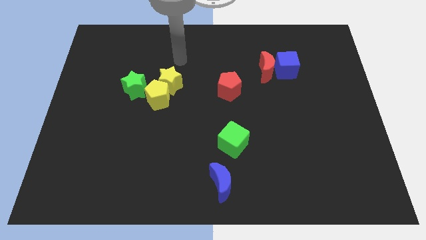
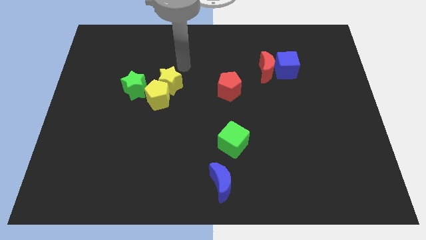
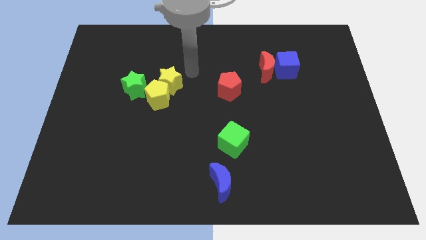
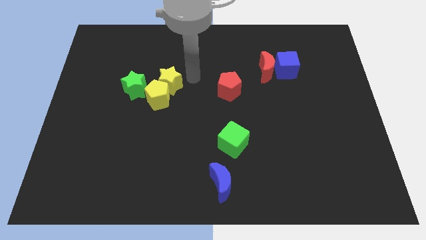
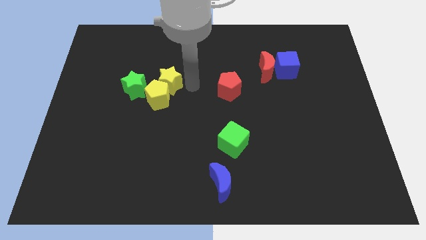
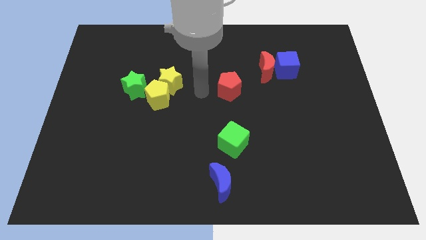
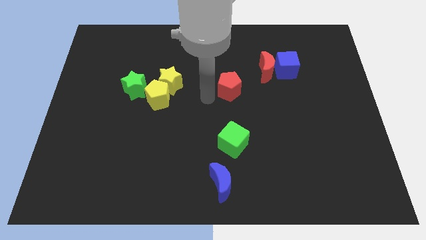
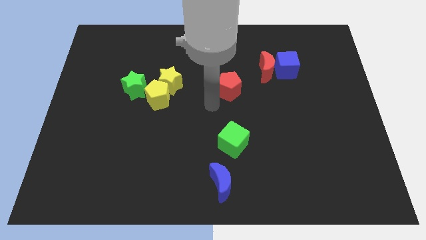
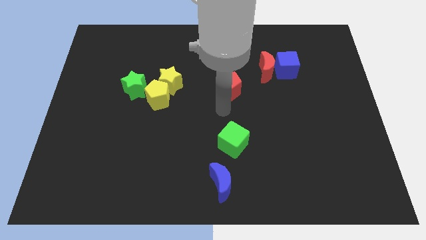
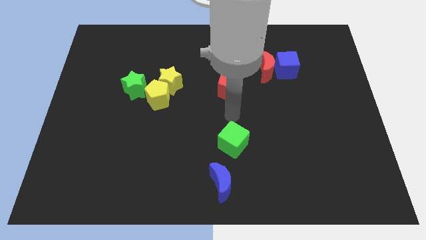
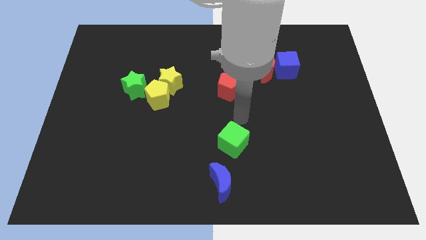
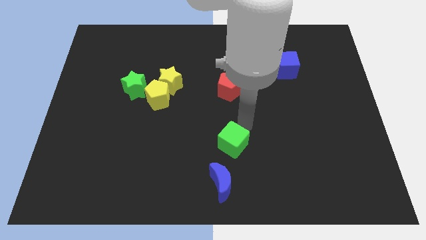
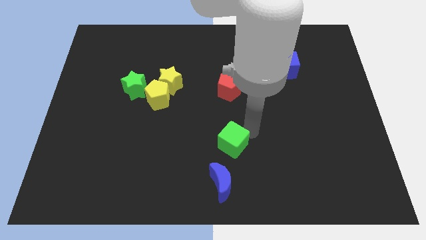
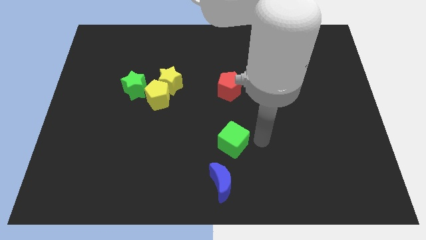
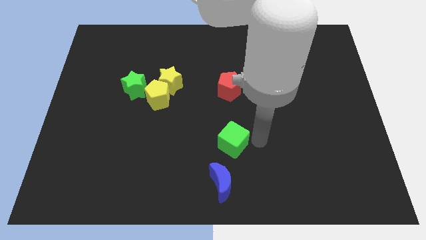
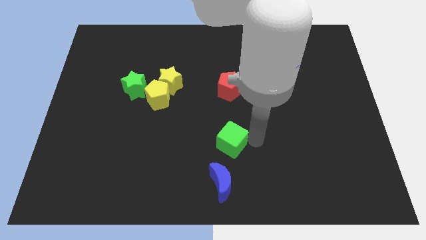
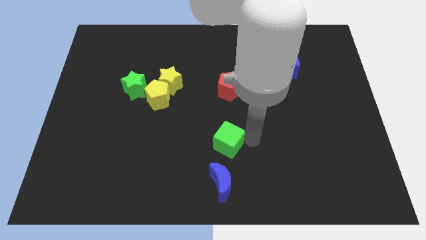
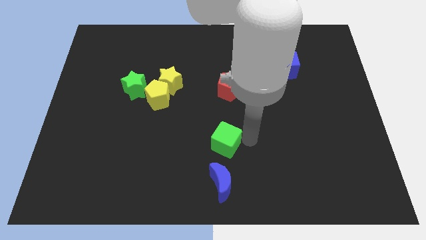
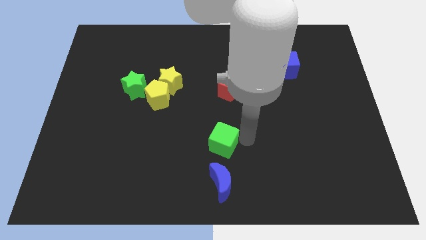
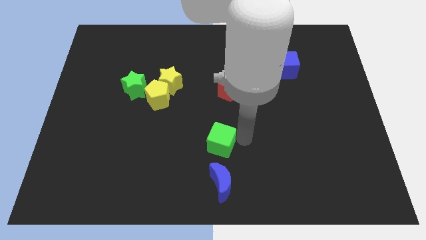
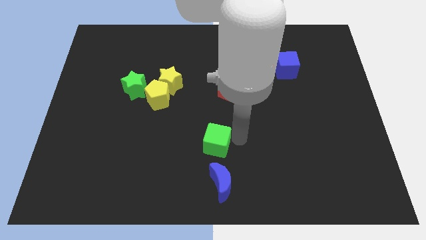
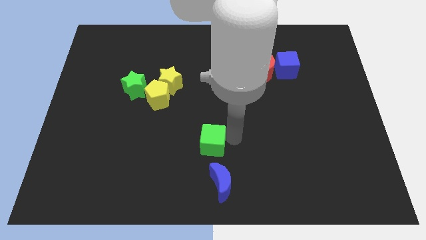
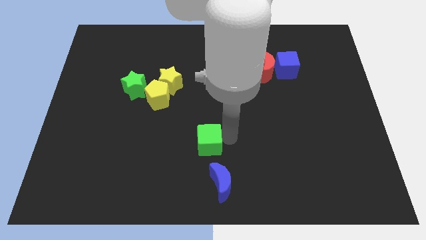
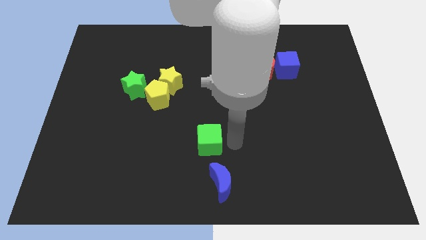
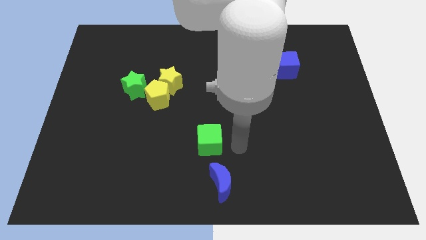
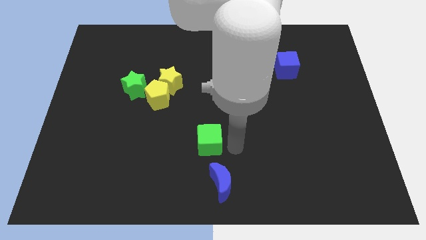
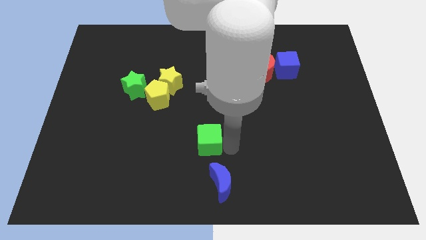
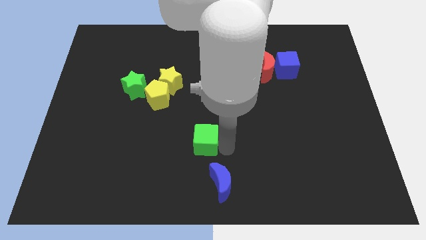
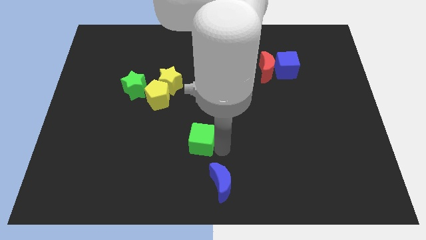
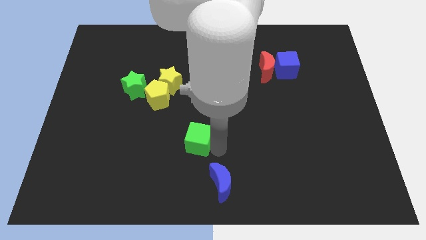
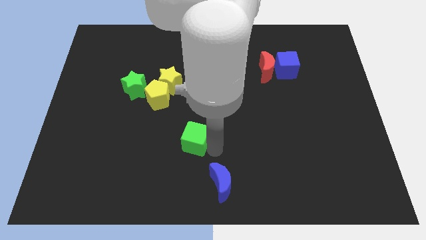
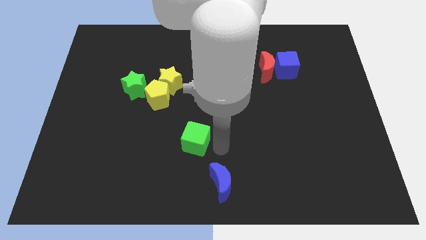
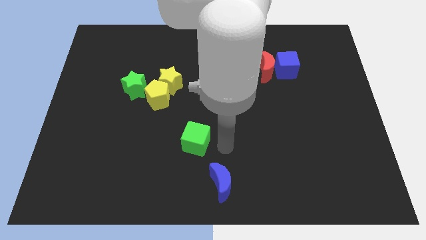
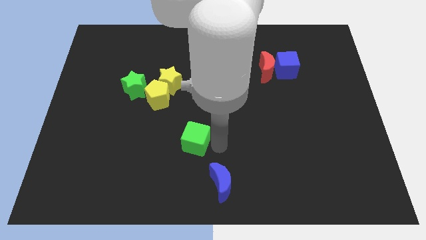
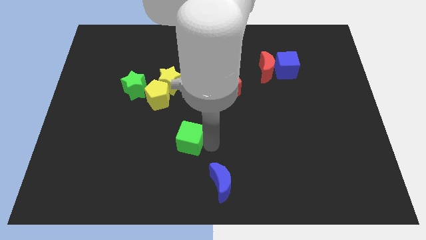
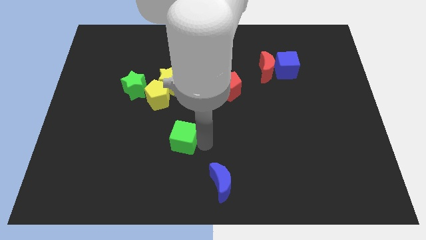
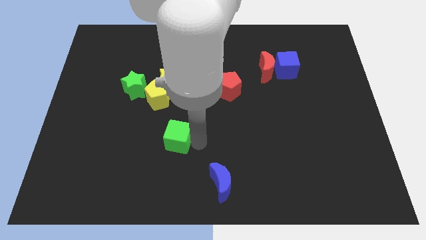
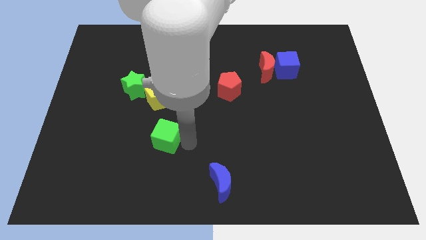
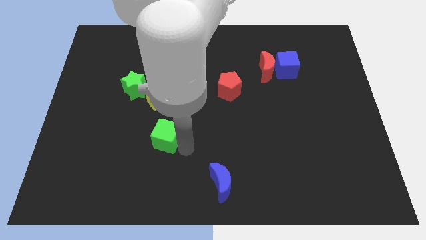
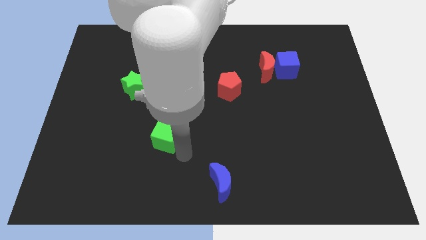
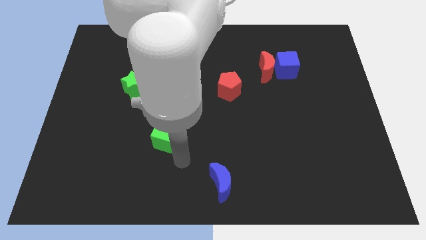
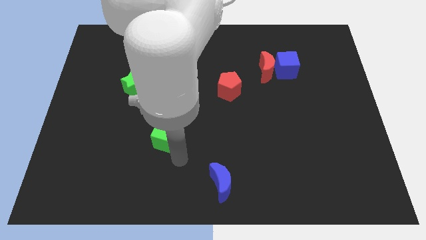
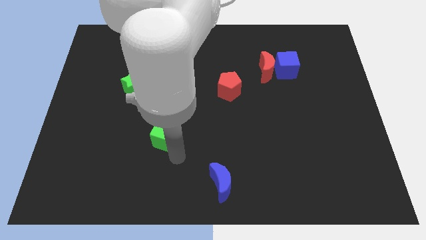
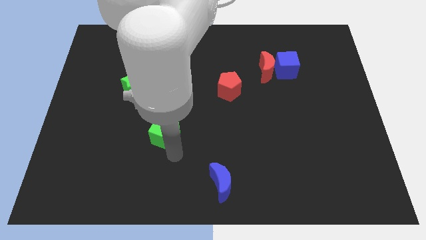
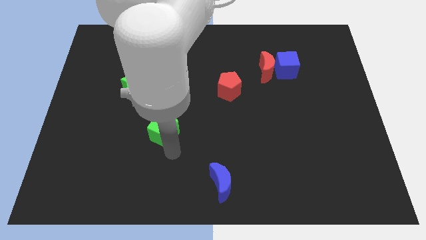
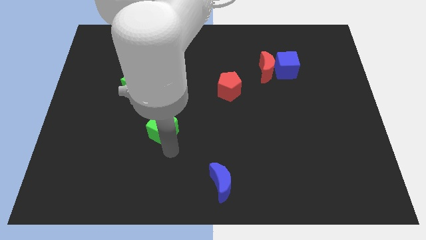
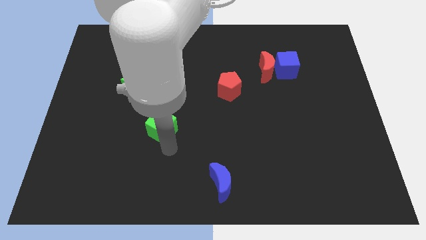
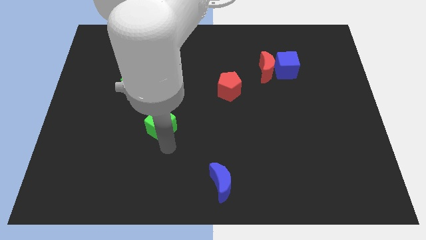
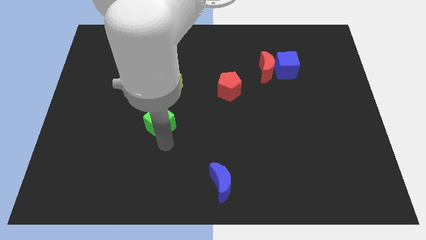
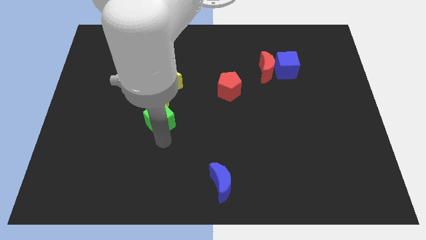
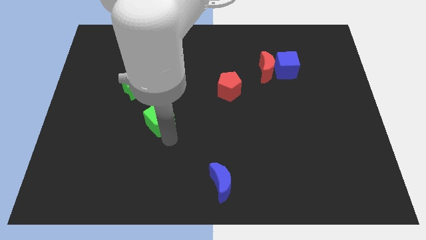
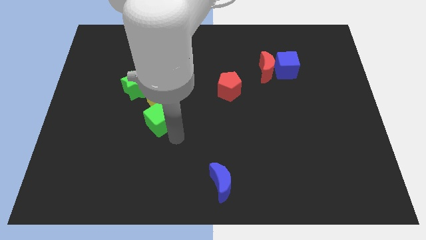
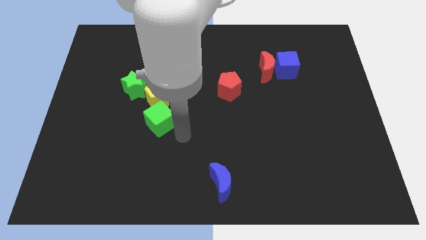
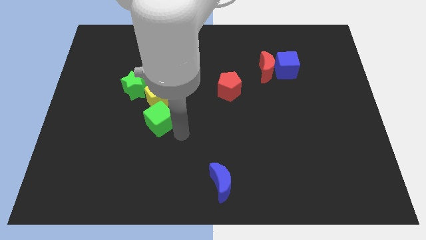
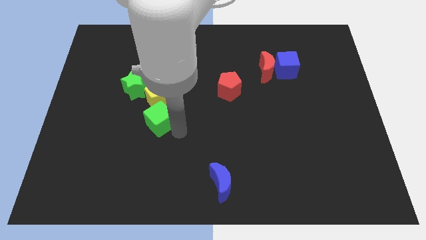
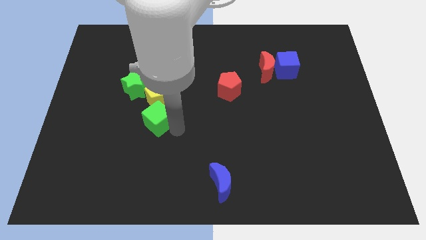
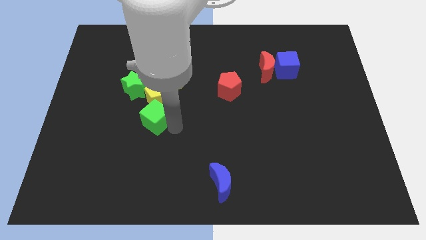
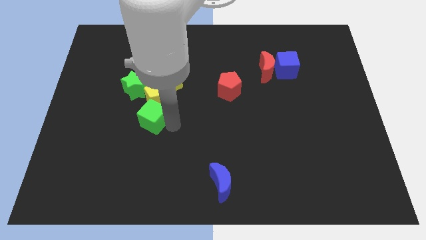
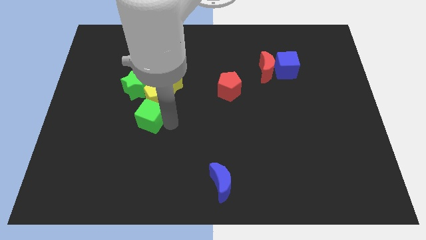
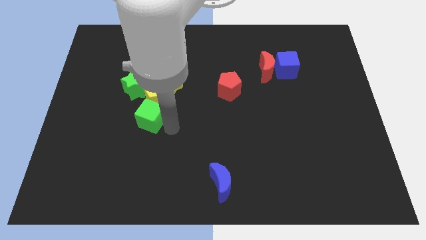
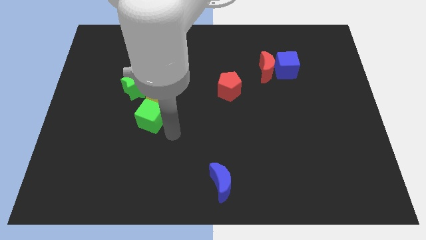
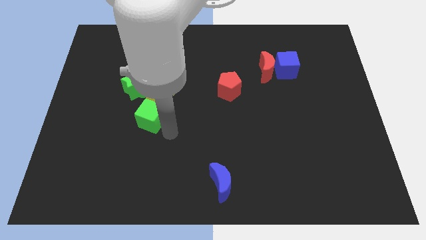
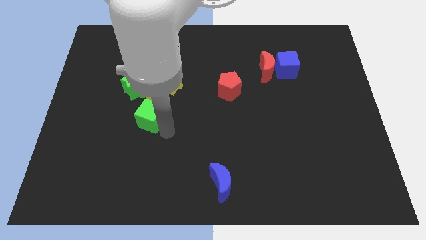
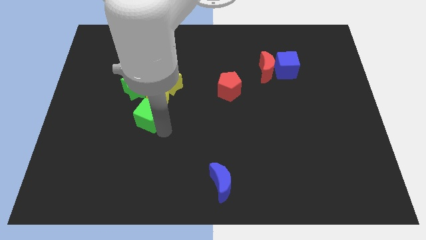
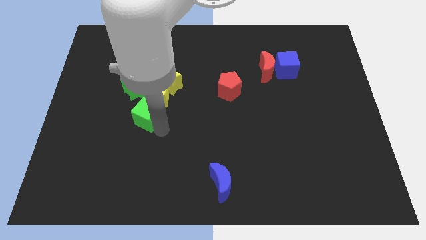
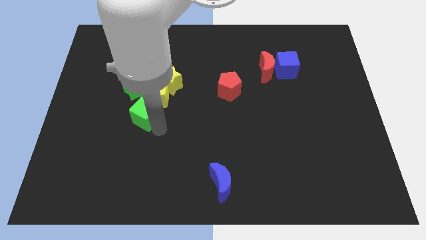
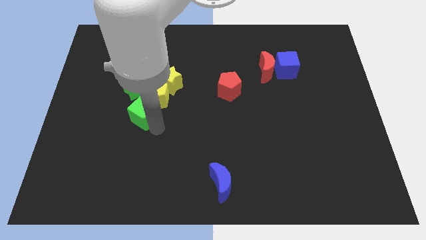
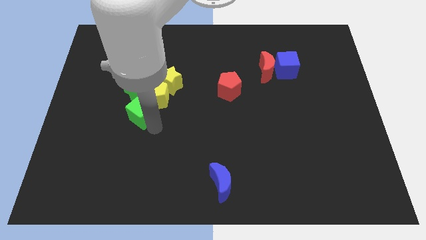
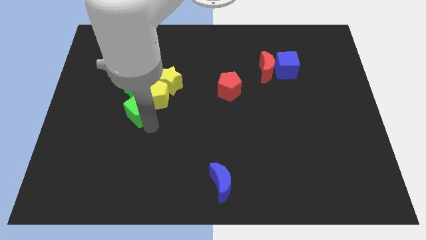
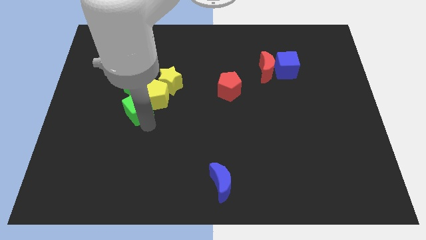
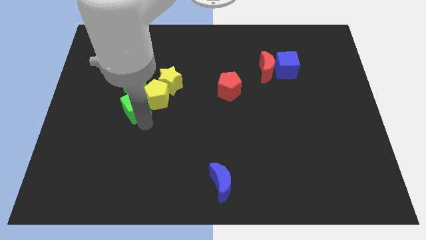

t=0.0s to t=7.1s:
push the green cube close to the green star
